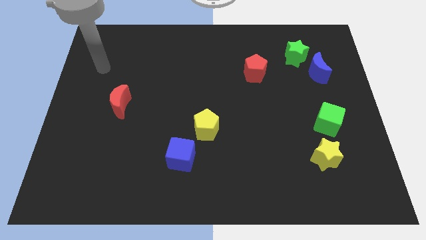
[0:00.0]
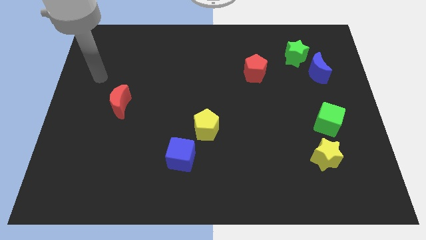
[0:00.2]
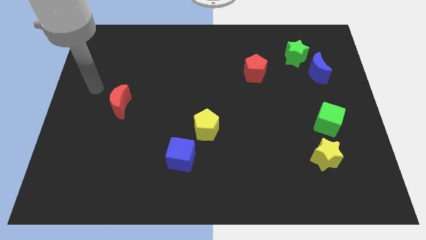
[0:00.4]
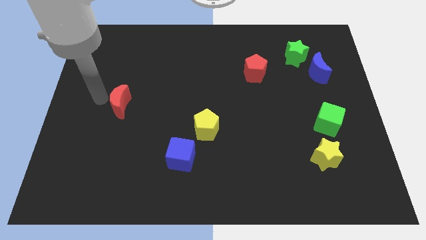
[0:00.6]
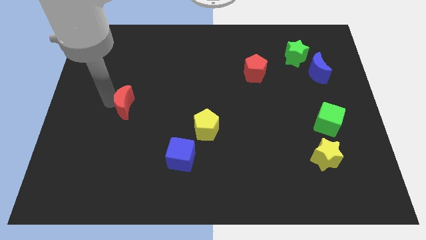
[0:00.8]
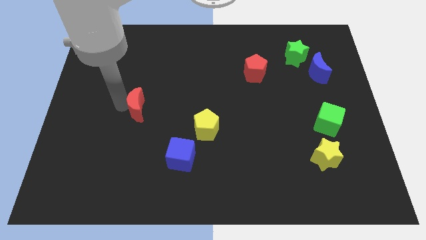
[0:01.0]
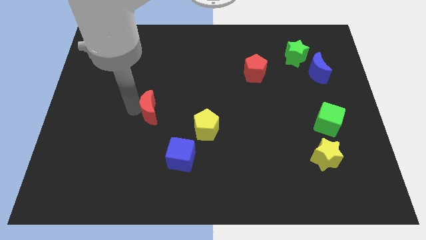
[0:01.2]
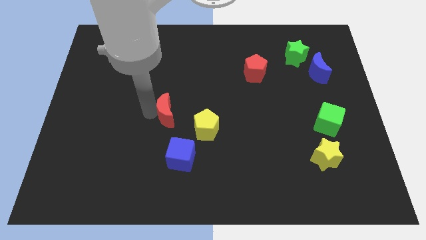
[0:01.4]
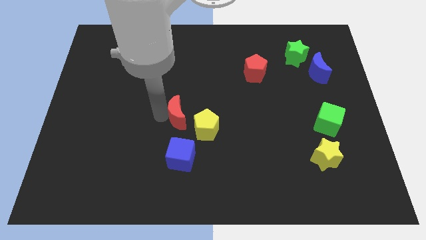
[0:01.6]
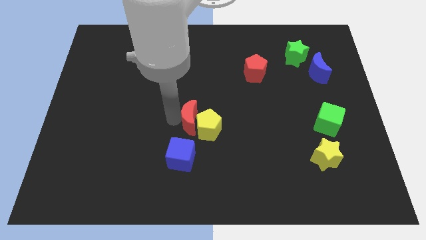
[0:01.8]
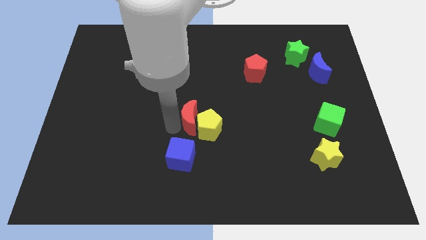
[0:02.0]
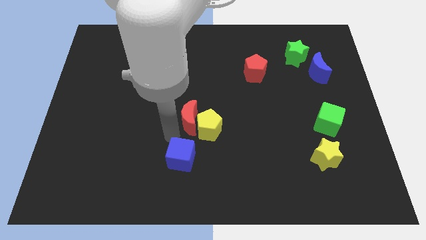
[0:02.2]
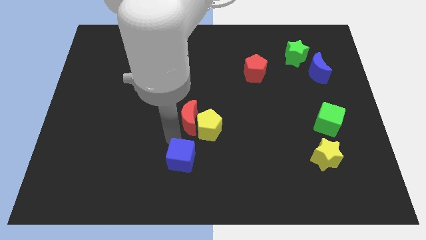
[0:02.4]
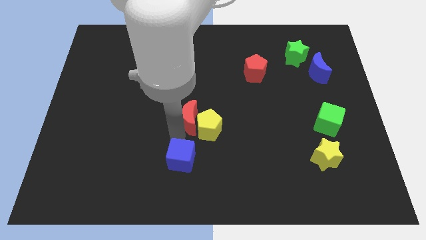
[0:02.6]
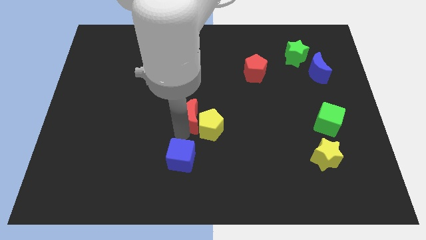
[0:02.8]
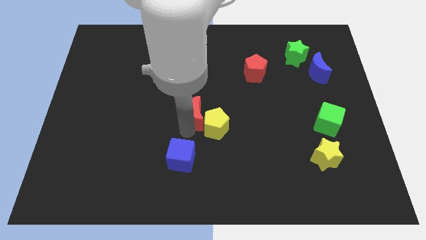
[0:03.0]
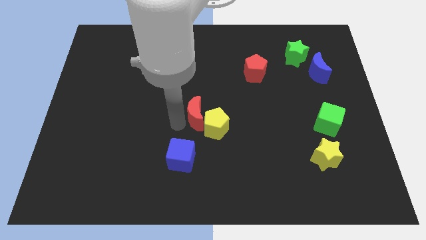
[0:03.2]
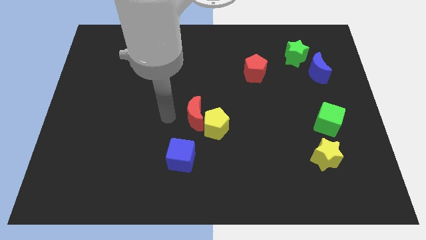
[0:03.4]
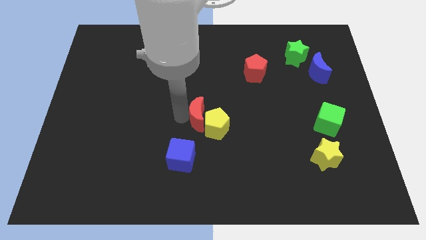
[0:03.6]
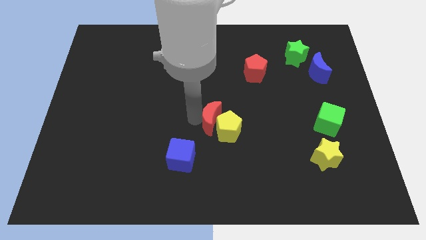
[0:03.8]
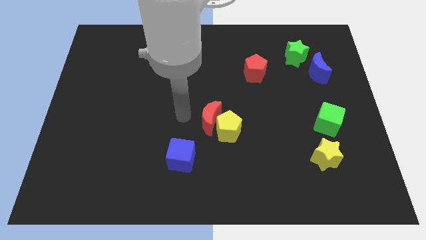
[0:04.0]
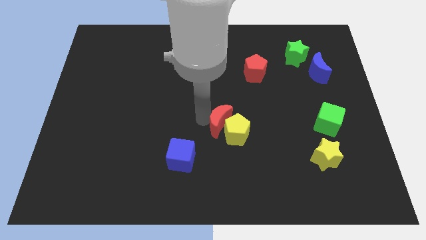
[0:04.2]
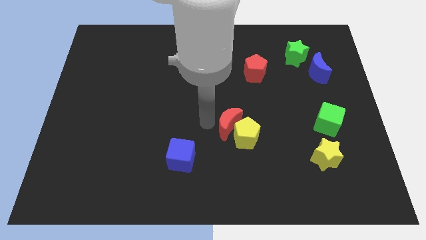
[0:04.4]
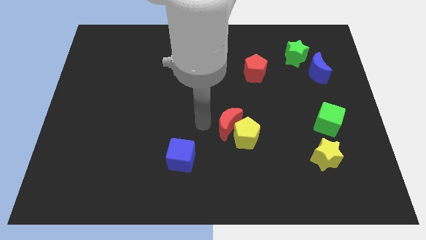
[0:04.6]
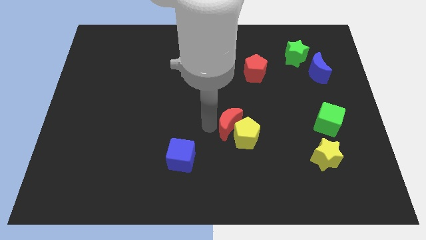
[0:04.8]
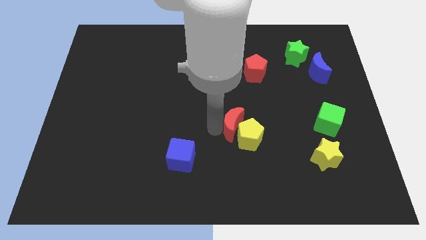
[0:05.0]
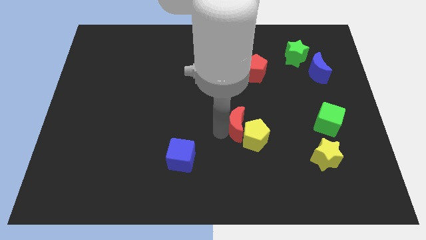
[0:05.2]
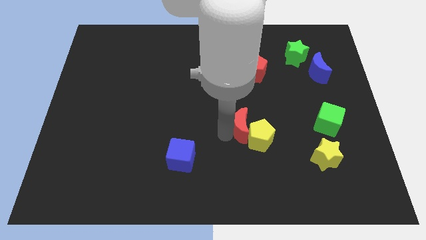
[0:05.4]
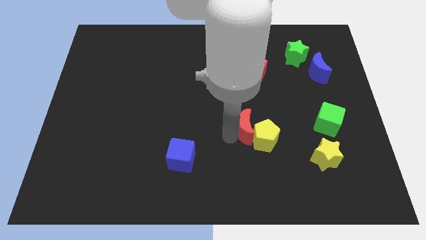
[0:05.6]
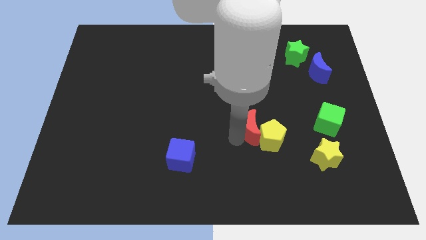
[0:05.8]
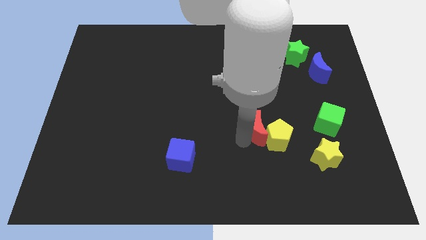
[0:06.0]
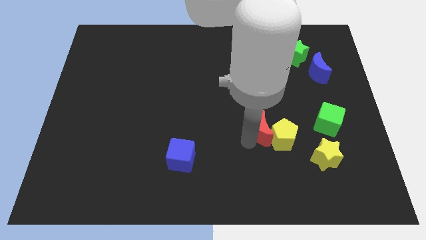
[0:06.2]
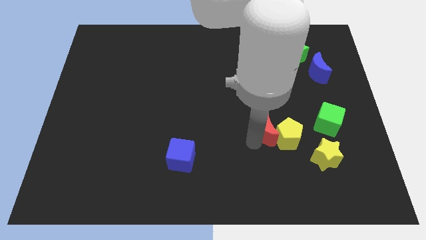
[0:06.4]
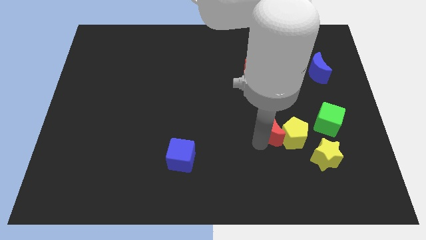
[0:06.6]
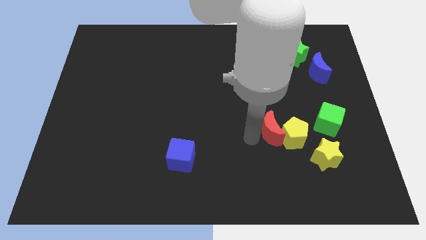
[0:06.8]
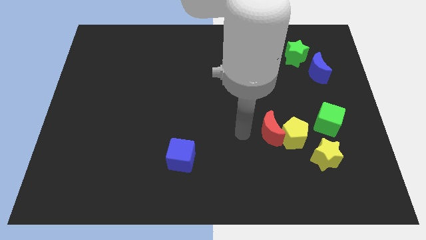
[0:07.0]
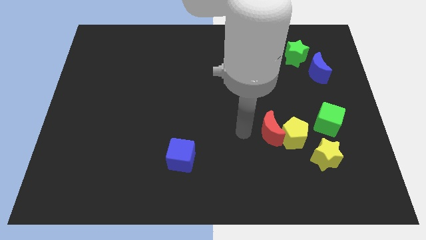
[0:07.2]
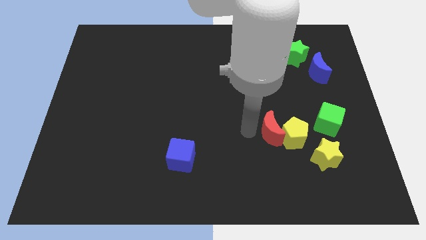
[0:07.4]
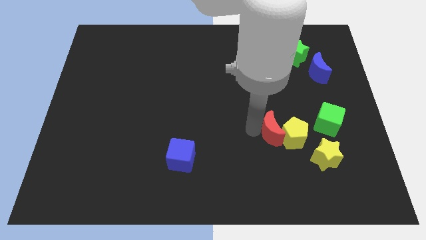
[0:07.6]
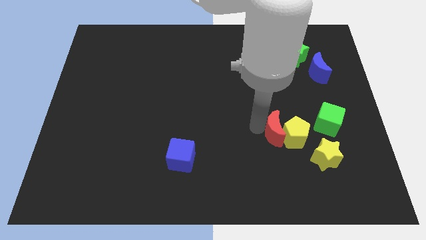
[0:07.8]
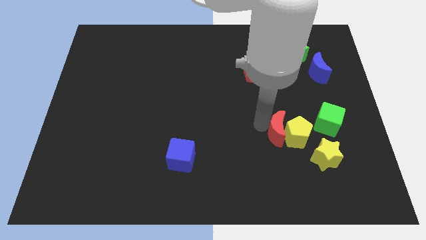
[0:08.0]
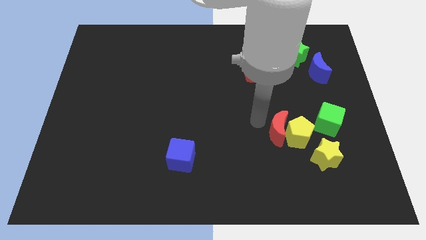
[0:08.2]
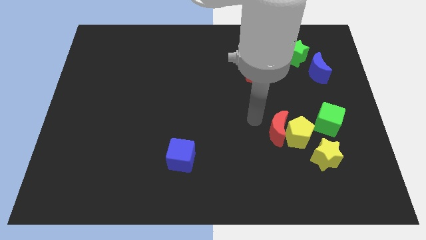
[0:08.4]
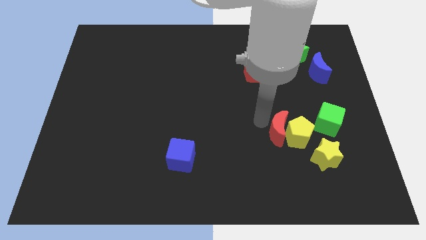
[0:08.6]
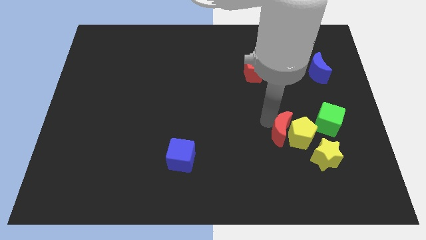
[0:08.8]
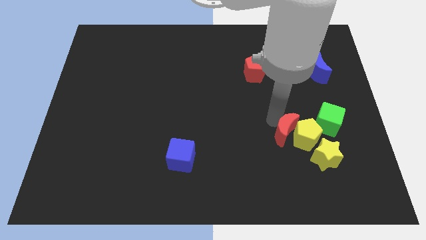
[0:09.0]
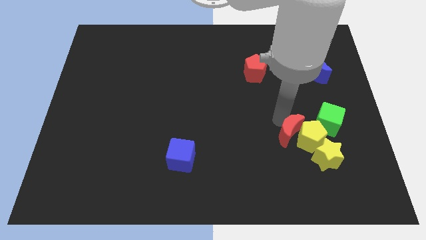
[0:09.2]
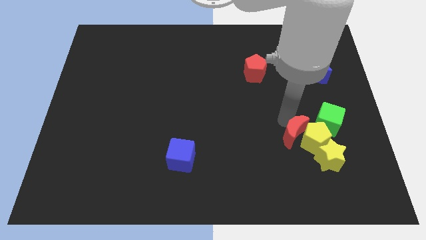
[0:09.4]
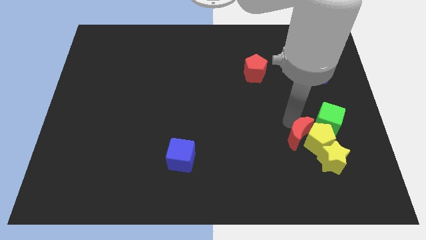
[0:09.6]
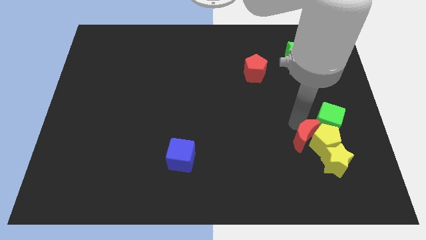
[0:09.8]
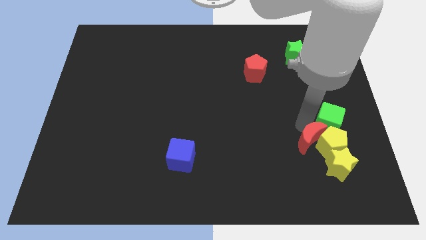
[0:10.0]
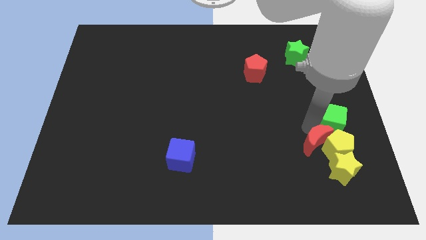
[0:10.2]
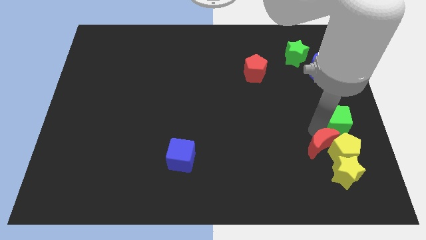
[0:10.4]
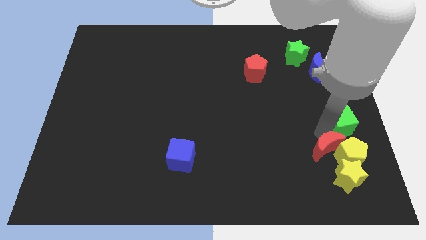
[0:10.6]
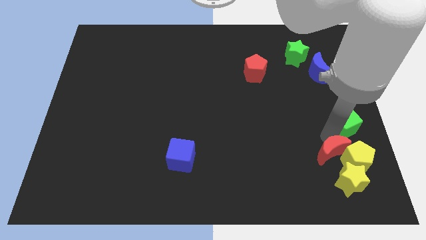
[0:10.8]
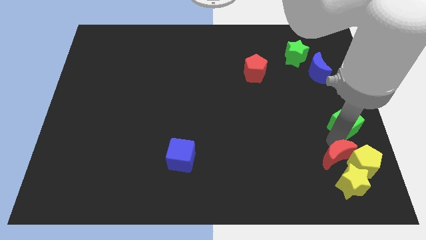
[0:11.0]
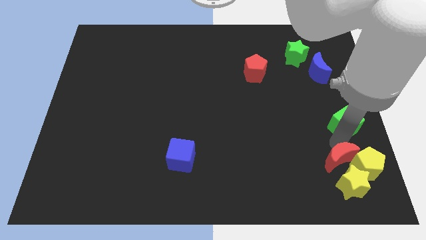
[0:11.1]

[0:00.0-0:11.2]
push the red moon towards the yellow star

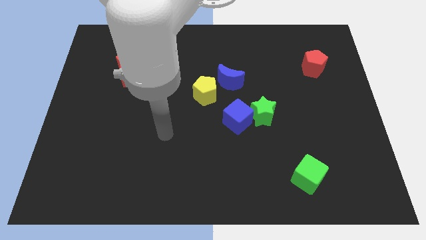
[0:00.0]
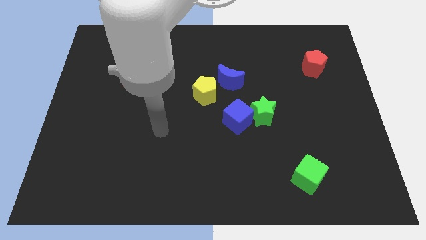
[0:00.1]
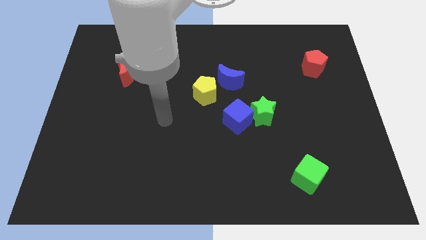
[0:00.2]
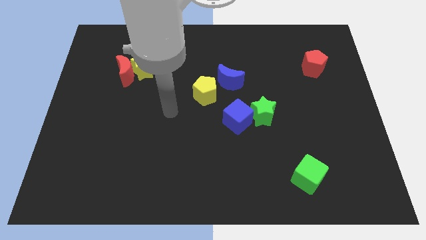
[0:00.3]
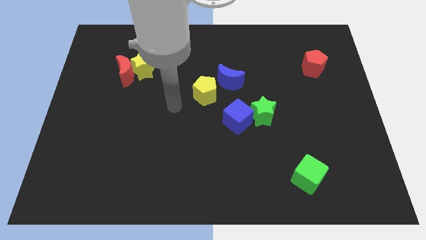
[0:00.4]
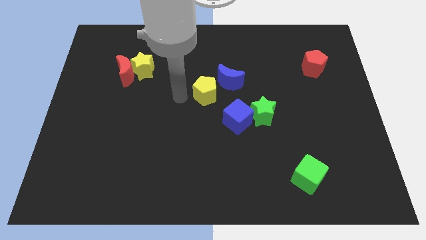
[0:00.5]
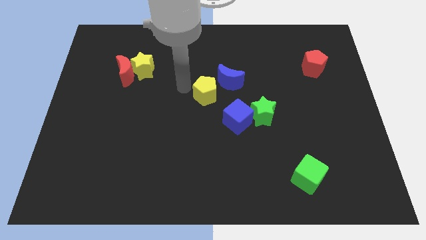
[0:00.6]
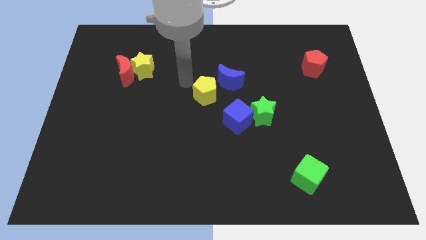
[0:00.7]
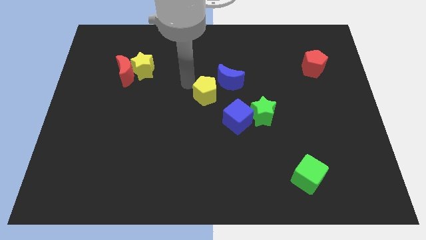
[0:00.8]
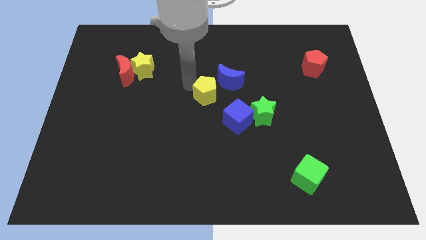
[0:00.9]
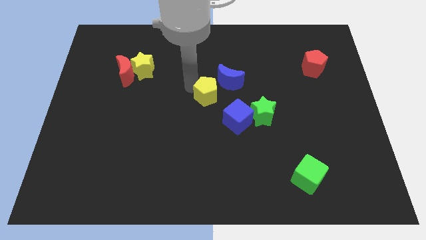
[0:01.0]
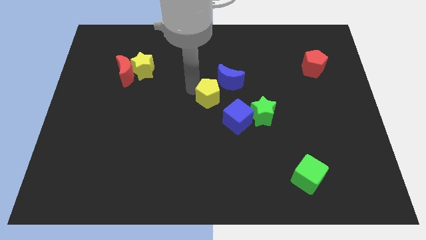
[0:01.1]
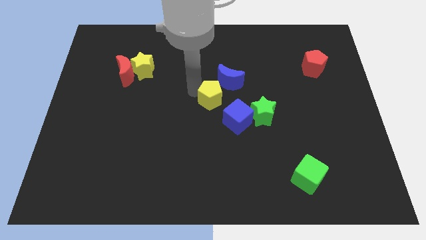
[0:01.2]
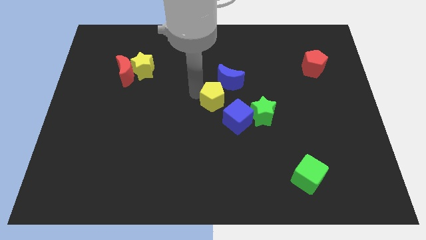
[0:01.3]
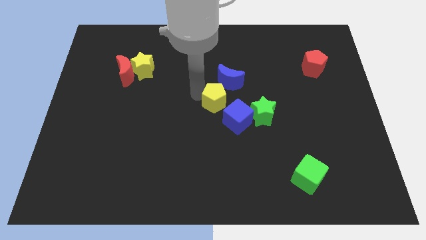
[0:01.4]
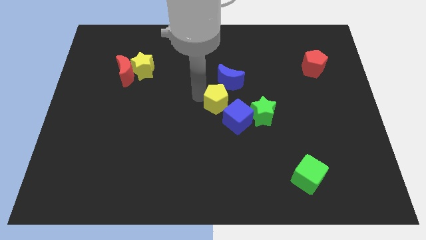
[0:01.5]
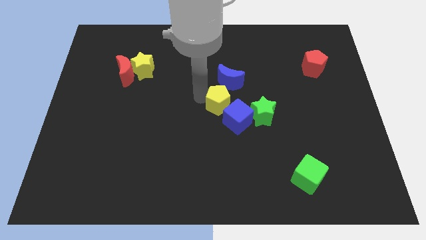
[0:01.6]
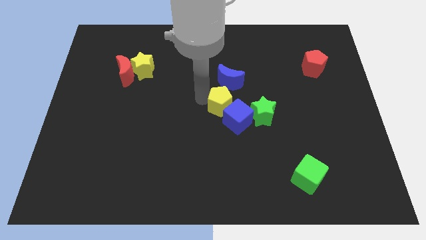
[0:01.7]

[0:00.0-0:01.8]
move the yellow pentagon towards the blue cube

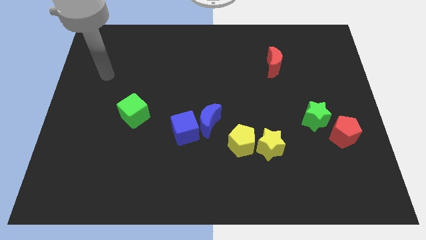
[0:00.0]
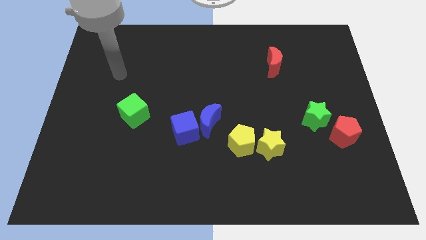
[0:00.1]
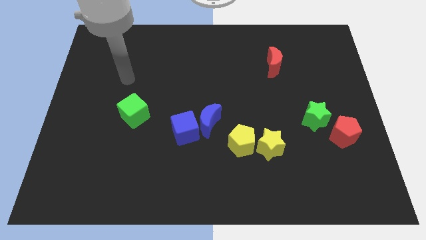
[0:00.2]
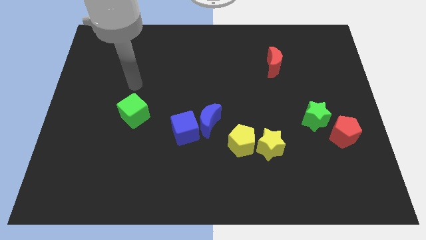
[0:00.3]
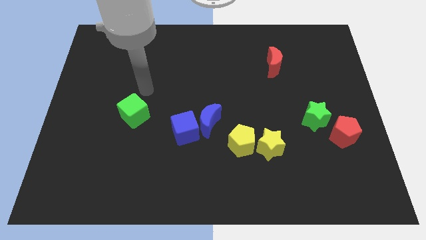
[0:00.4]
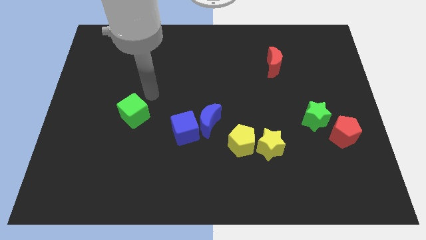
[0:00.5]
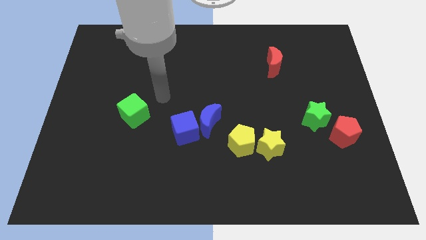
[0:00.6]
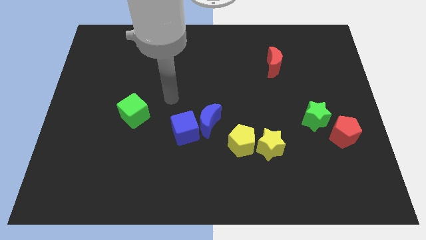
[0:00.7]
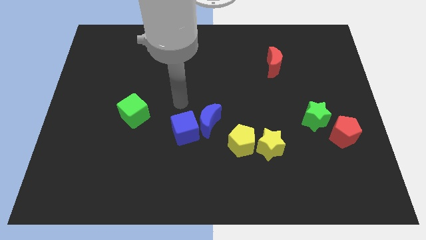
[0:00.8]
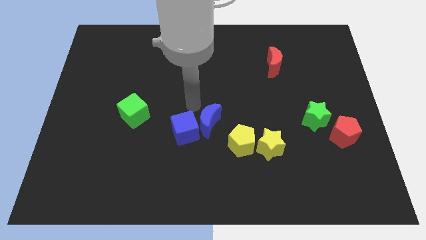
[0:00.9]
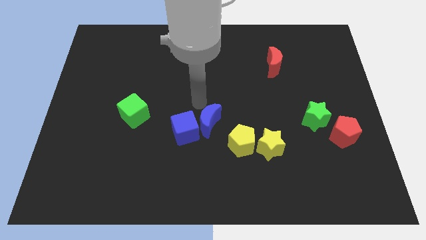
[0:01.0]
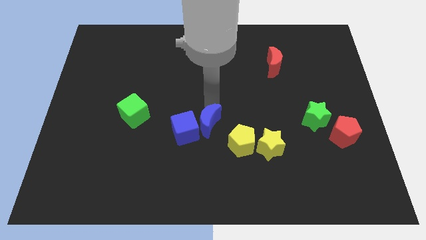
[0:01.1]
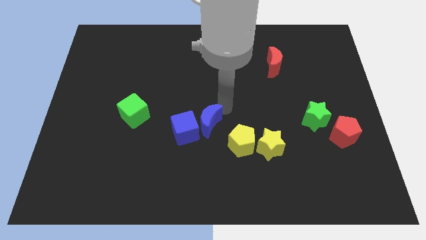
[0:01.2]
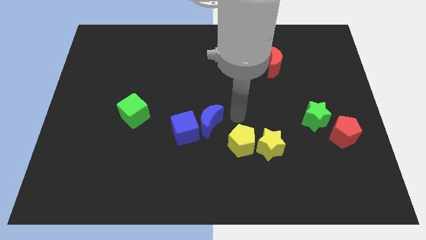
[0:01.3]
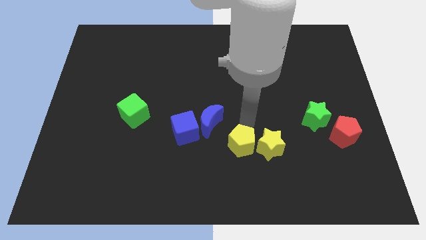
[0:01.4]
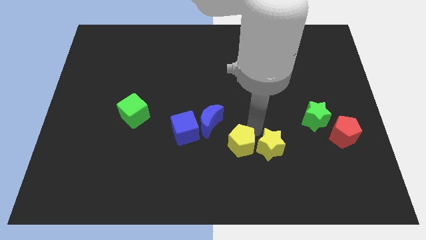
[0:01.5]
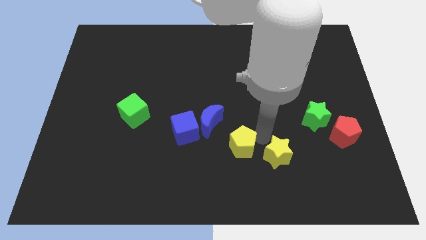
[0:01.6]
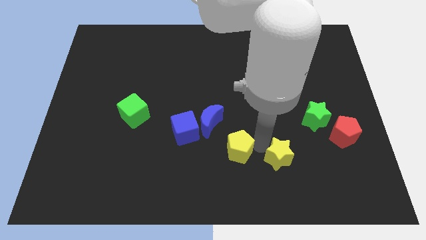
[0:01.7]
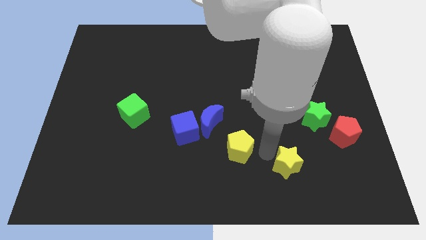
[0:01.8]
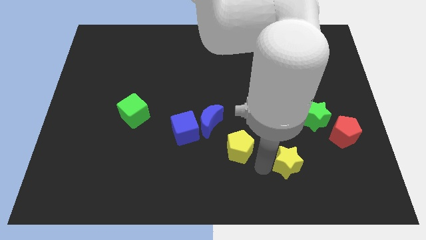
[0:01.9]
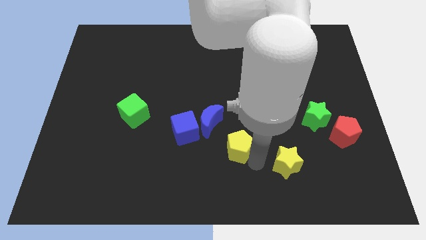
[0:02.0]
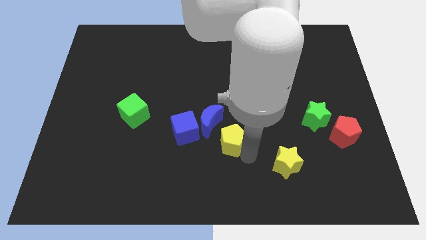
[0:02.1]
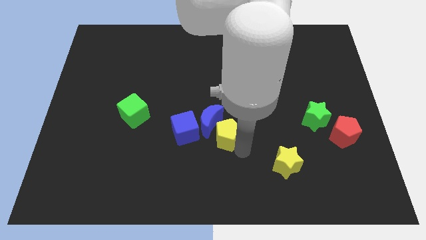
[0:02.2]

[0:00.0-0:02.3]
slide the yellow pentagon towards the blue moon
